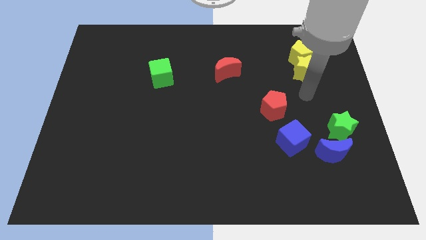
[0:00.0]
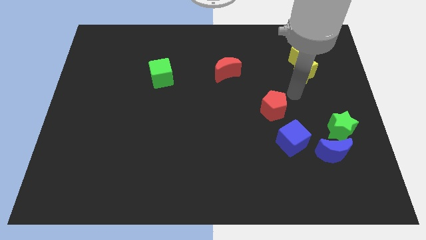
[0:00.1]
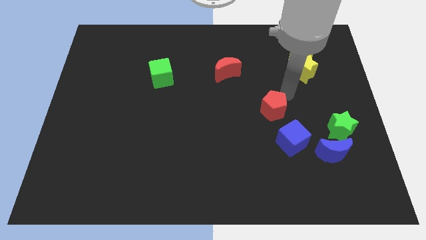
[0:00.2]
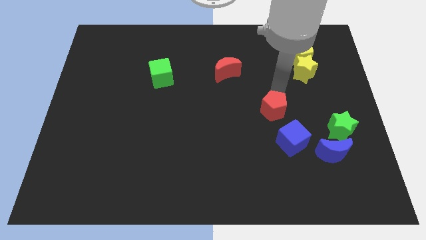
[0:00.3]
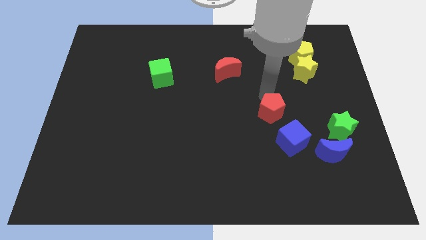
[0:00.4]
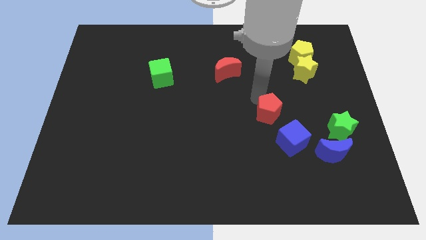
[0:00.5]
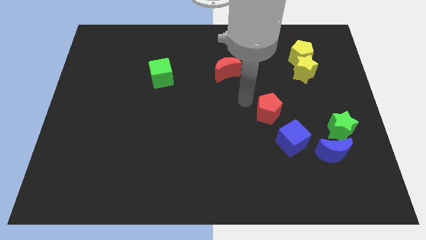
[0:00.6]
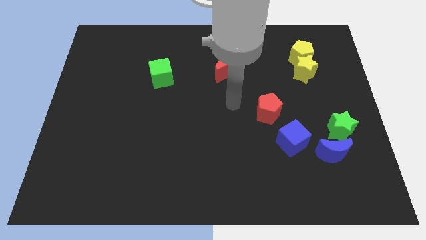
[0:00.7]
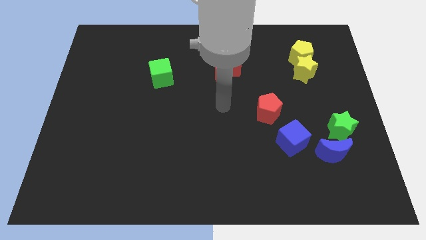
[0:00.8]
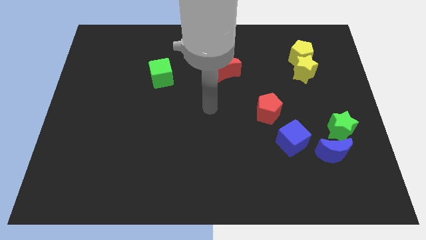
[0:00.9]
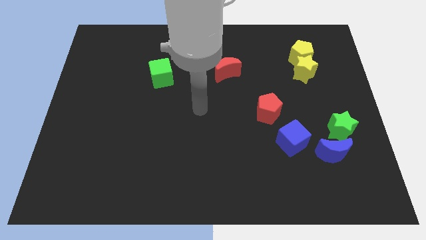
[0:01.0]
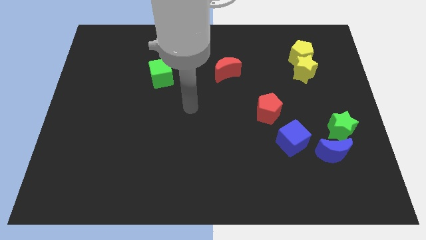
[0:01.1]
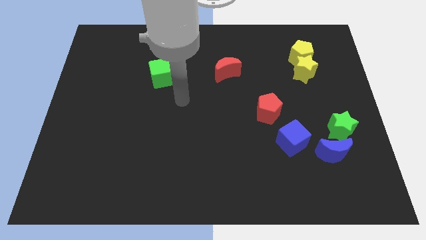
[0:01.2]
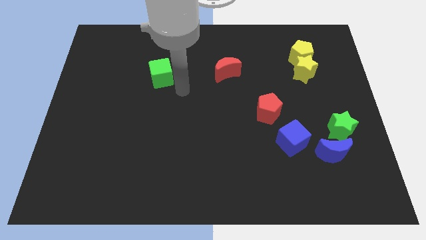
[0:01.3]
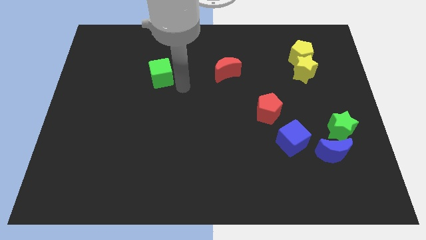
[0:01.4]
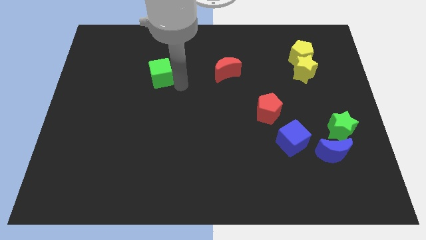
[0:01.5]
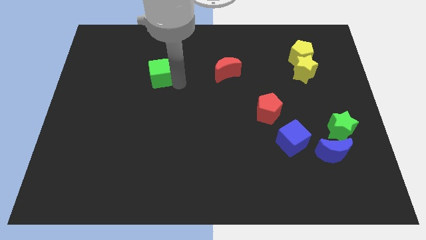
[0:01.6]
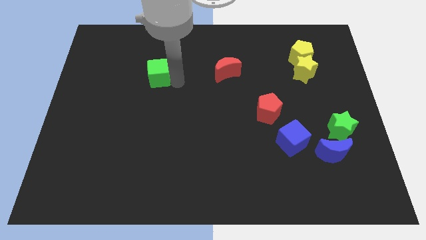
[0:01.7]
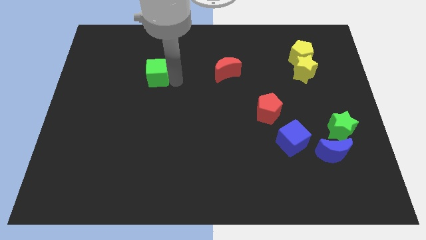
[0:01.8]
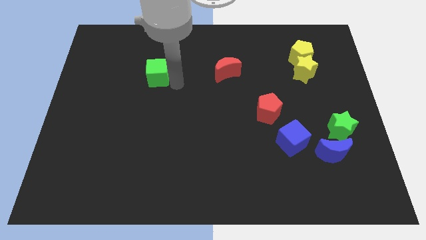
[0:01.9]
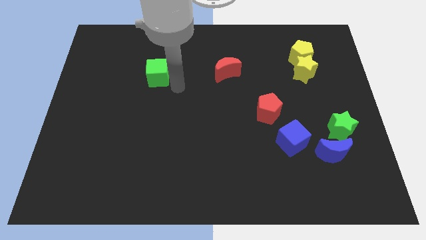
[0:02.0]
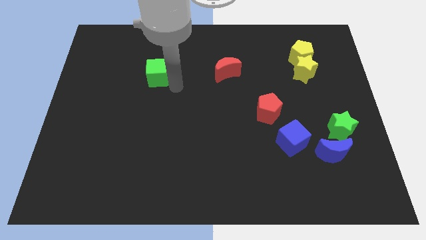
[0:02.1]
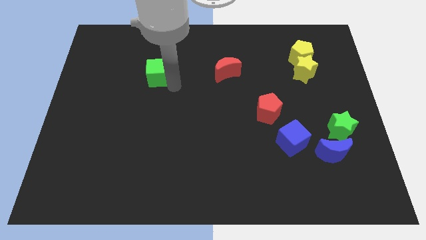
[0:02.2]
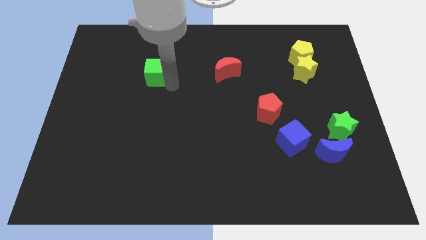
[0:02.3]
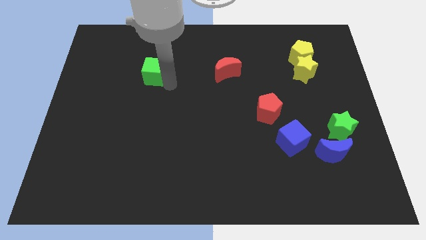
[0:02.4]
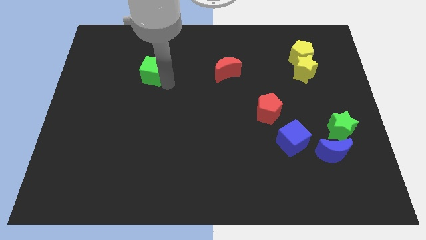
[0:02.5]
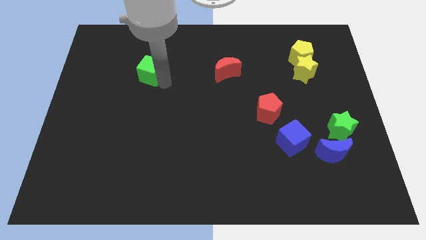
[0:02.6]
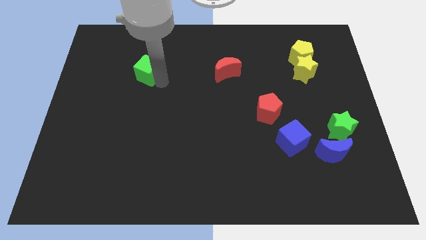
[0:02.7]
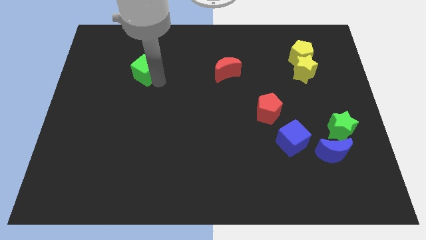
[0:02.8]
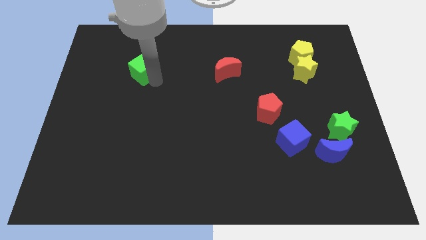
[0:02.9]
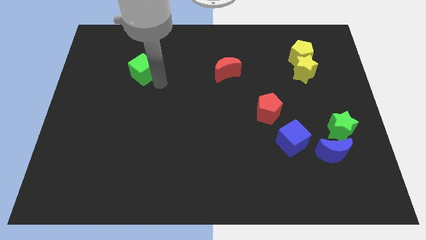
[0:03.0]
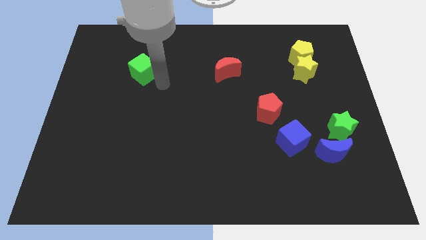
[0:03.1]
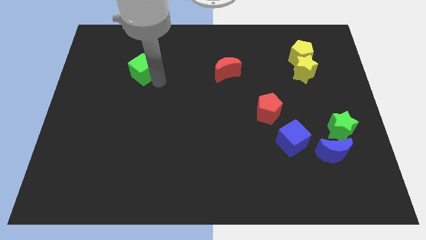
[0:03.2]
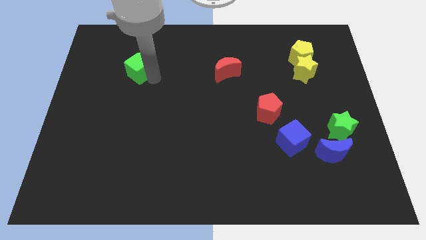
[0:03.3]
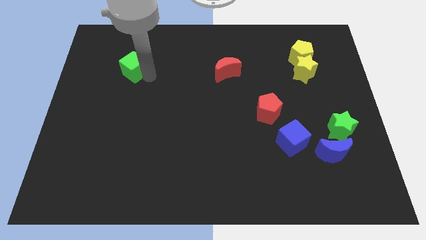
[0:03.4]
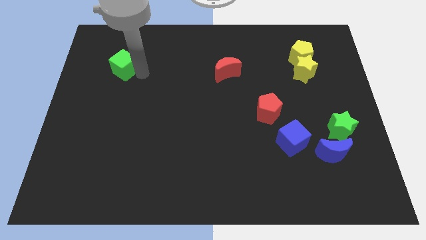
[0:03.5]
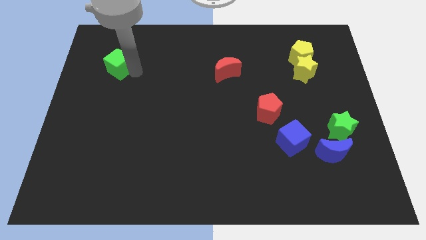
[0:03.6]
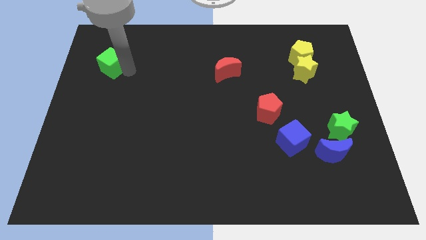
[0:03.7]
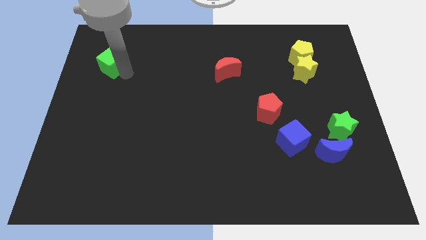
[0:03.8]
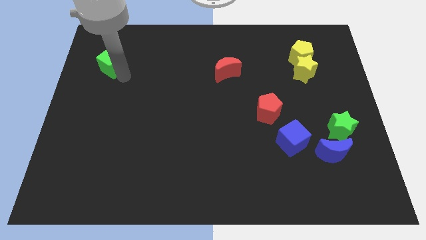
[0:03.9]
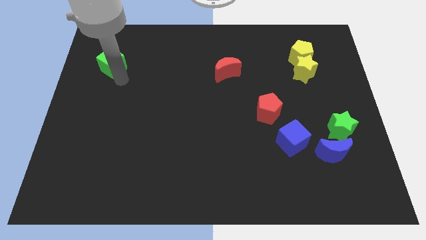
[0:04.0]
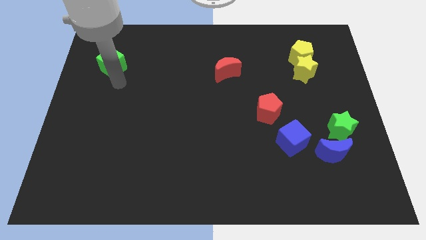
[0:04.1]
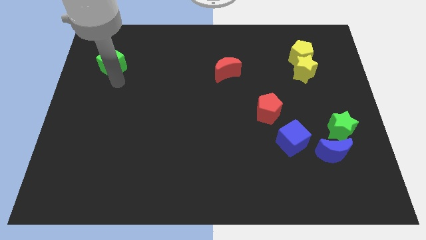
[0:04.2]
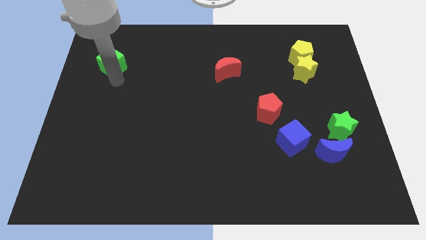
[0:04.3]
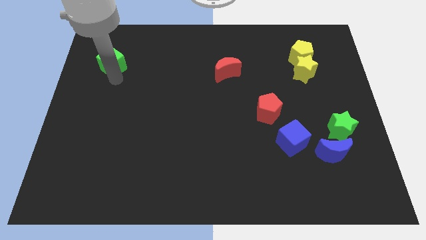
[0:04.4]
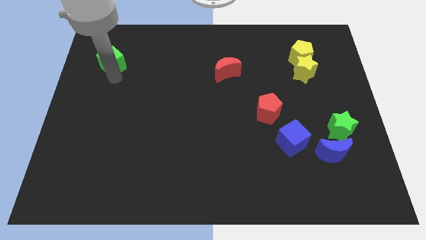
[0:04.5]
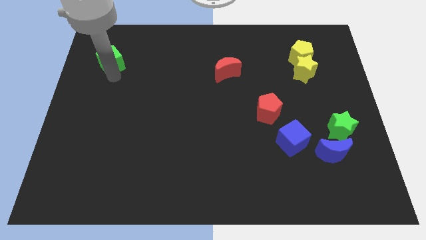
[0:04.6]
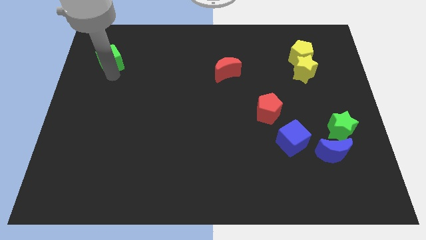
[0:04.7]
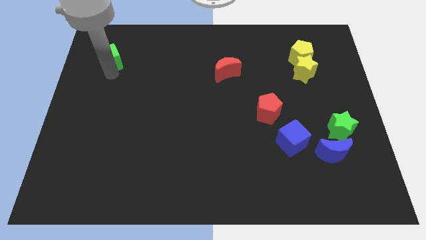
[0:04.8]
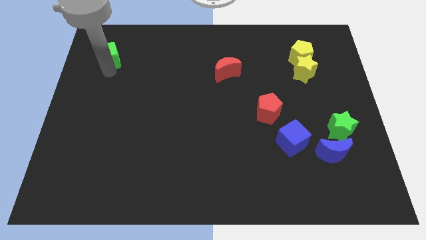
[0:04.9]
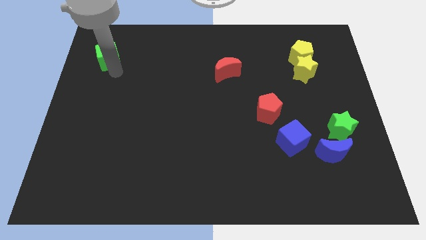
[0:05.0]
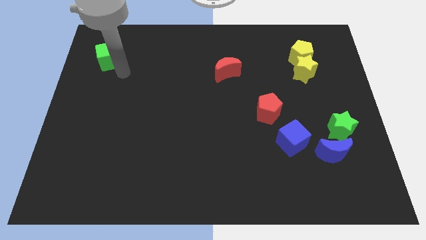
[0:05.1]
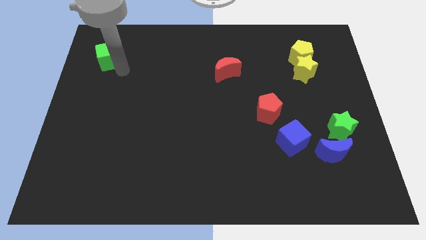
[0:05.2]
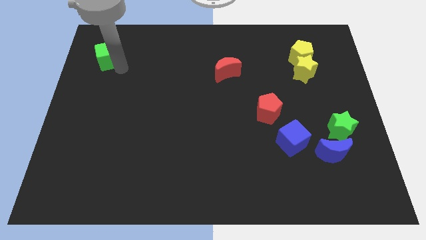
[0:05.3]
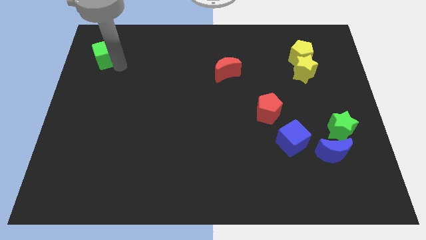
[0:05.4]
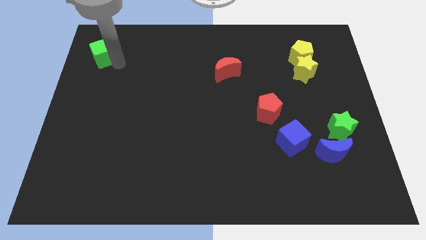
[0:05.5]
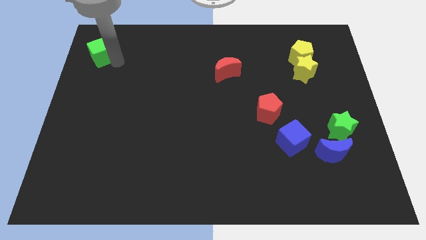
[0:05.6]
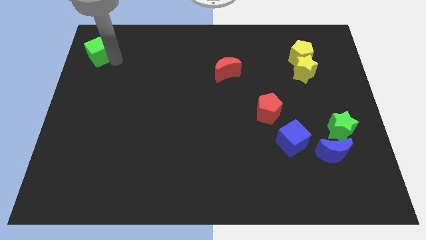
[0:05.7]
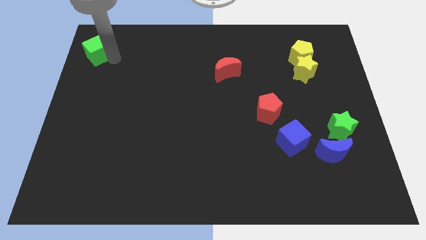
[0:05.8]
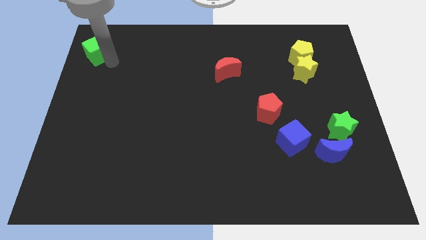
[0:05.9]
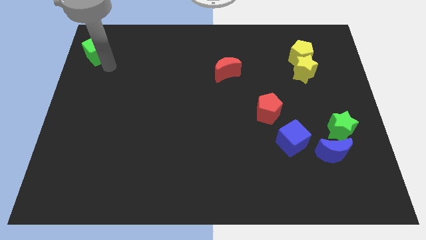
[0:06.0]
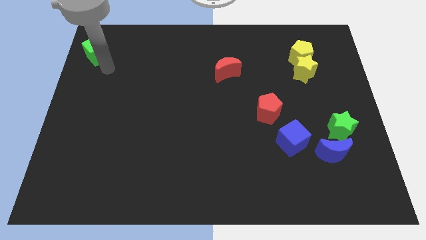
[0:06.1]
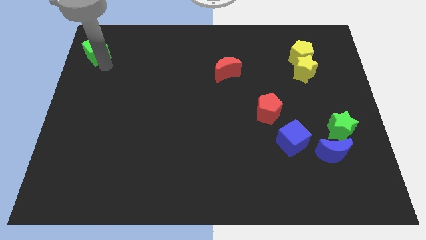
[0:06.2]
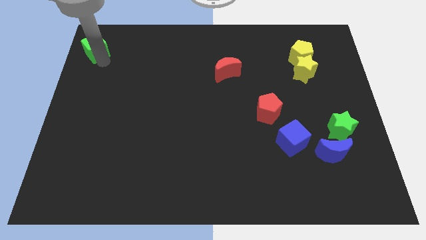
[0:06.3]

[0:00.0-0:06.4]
push the green cube to the top left
